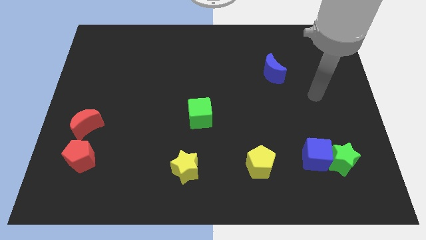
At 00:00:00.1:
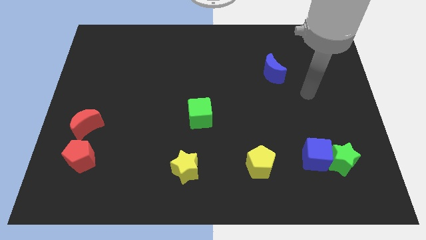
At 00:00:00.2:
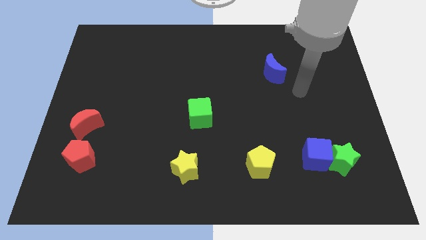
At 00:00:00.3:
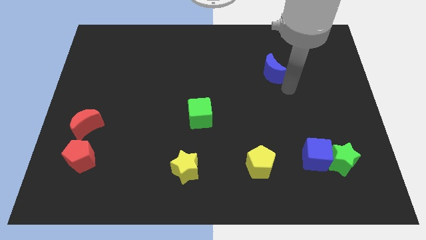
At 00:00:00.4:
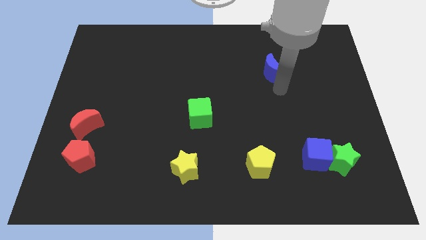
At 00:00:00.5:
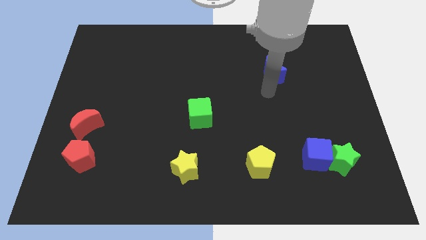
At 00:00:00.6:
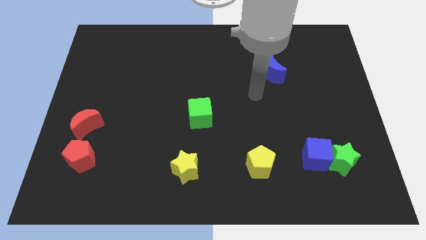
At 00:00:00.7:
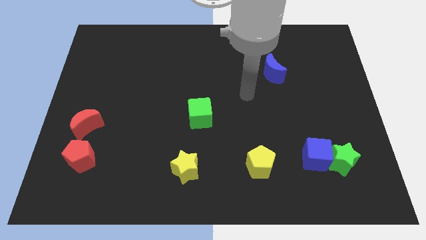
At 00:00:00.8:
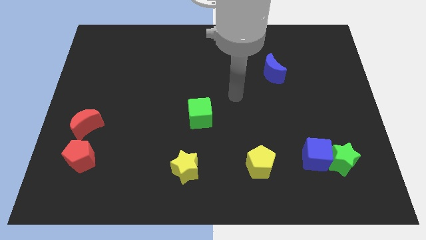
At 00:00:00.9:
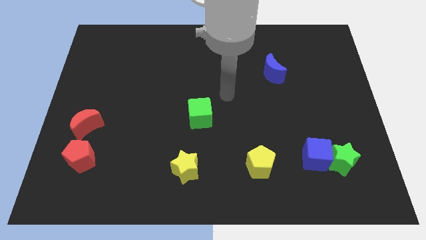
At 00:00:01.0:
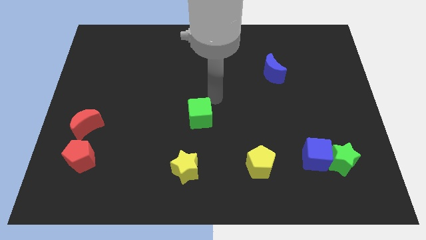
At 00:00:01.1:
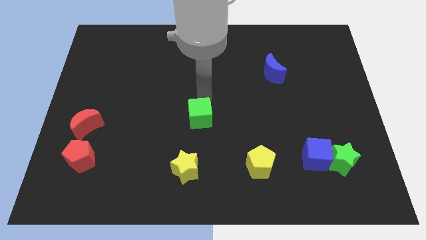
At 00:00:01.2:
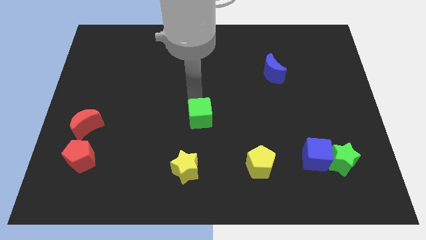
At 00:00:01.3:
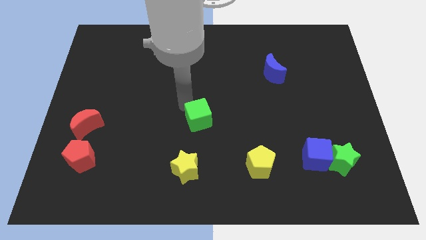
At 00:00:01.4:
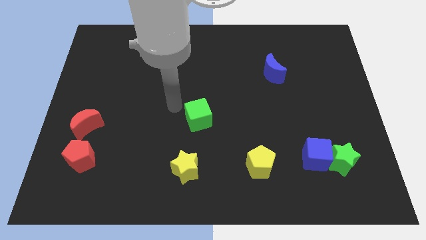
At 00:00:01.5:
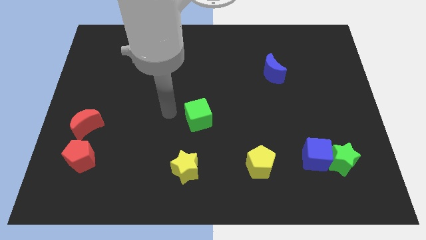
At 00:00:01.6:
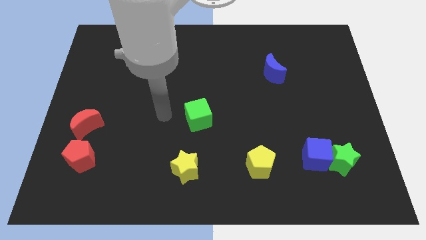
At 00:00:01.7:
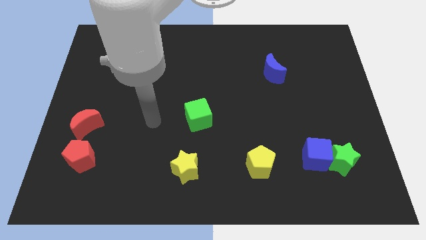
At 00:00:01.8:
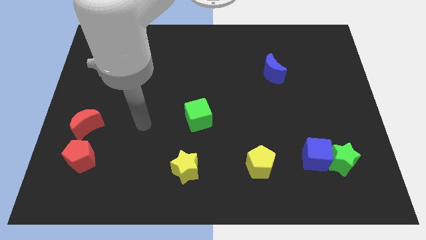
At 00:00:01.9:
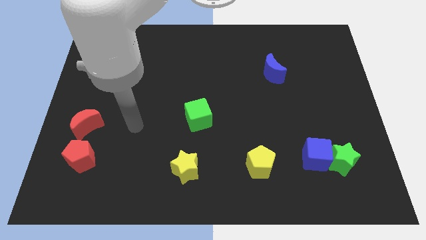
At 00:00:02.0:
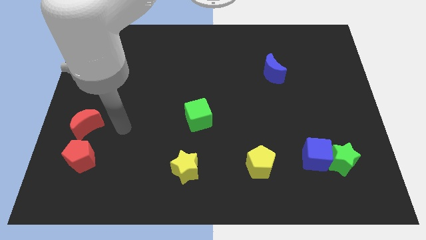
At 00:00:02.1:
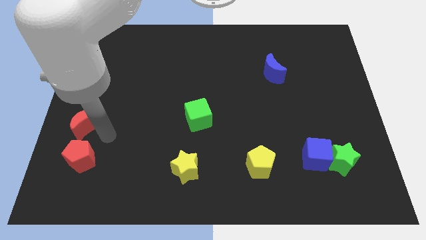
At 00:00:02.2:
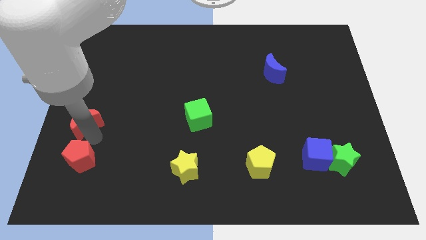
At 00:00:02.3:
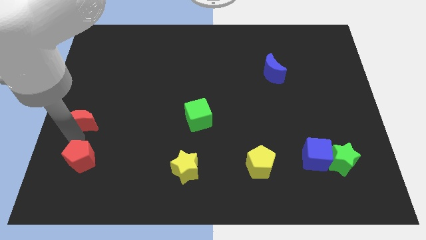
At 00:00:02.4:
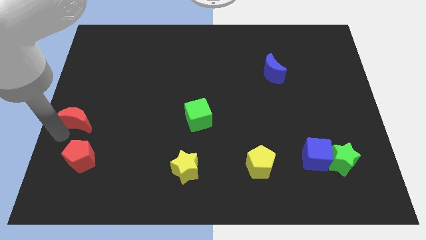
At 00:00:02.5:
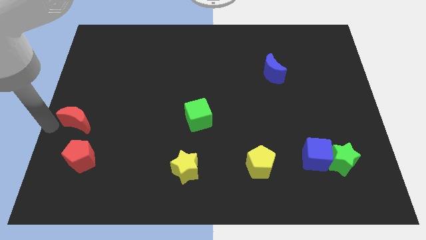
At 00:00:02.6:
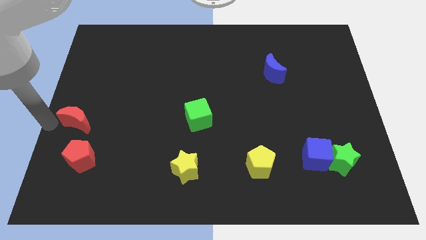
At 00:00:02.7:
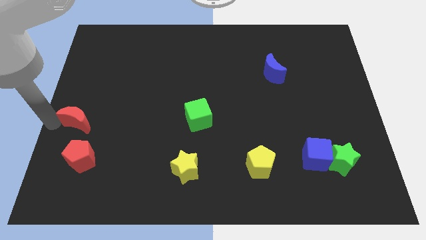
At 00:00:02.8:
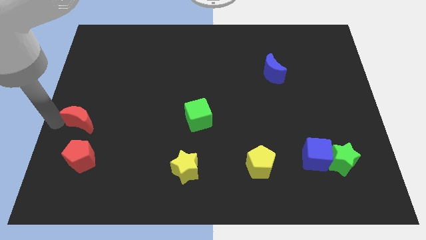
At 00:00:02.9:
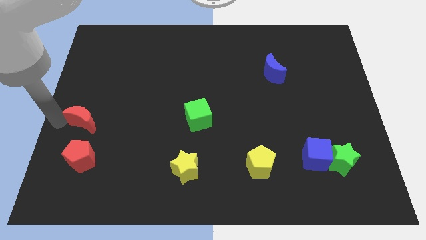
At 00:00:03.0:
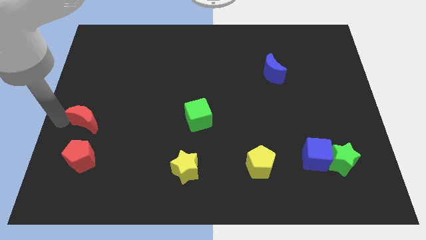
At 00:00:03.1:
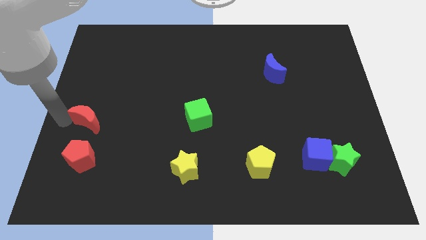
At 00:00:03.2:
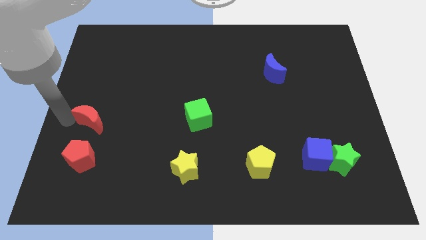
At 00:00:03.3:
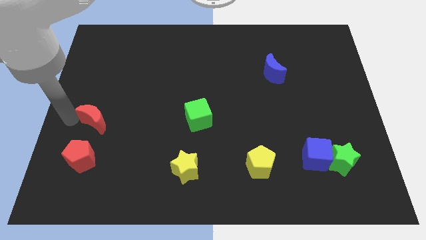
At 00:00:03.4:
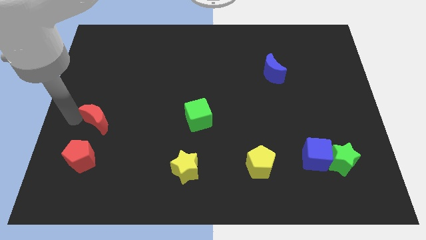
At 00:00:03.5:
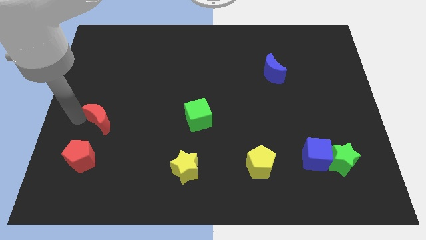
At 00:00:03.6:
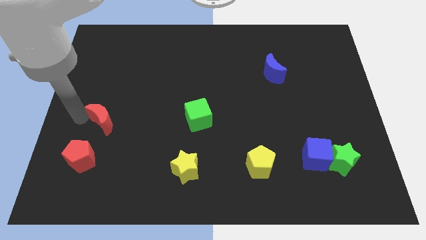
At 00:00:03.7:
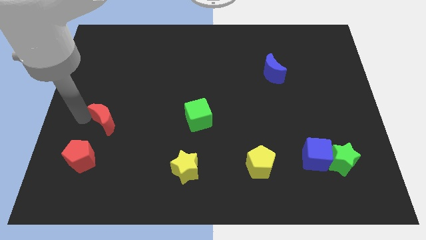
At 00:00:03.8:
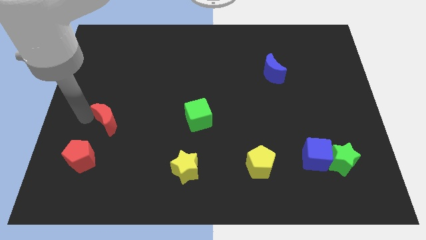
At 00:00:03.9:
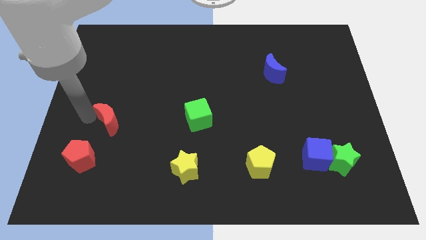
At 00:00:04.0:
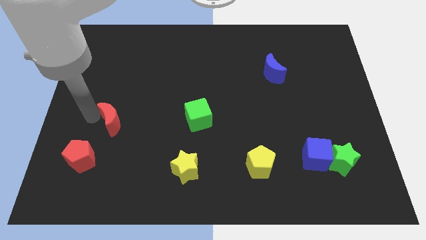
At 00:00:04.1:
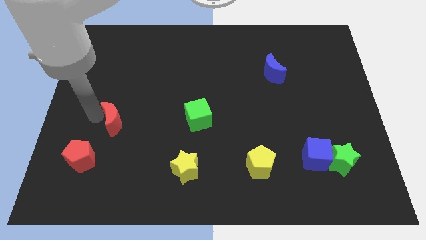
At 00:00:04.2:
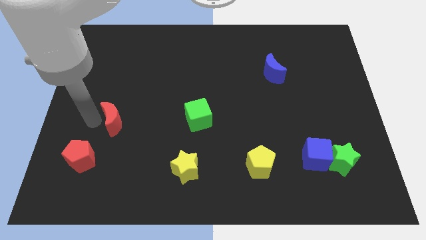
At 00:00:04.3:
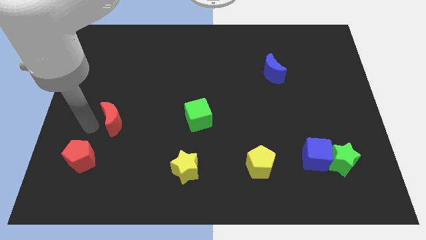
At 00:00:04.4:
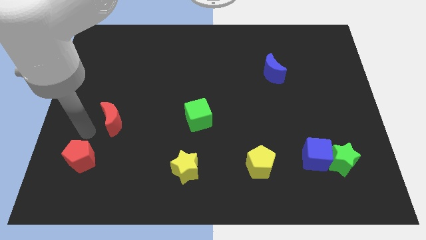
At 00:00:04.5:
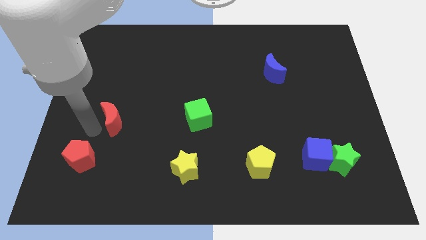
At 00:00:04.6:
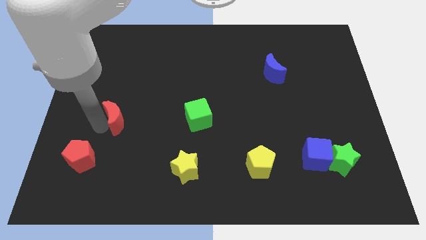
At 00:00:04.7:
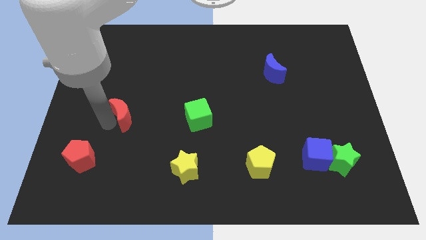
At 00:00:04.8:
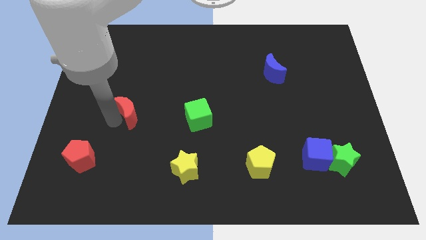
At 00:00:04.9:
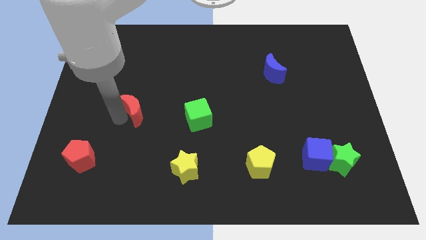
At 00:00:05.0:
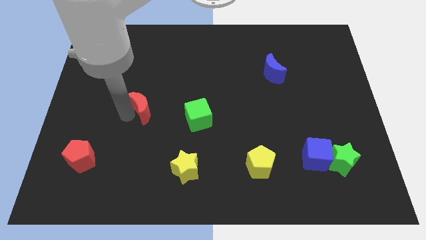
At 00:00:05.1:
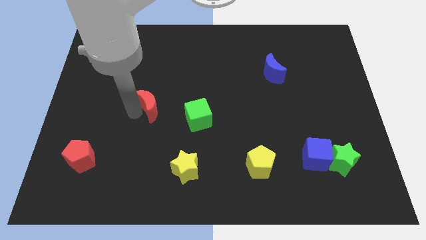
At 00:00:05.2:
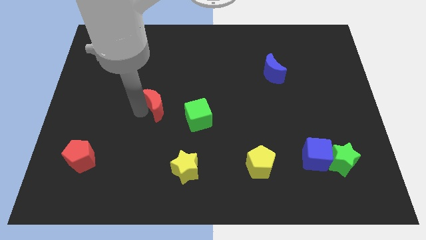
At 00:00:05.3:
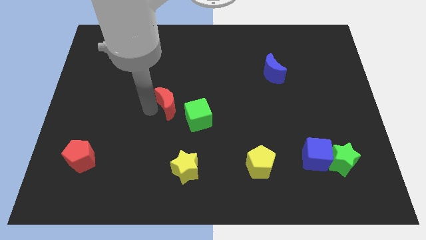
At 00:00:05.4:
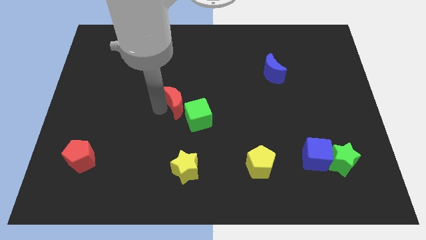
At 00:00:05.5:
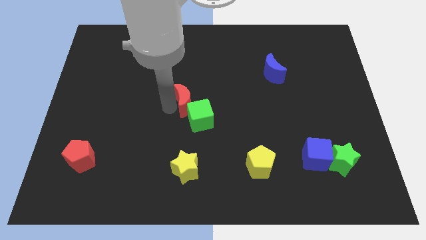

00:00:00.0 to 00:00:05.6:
slide the red moon above the green cube

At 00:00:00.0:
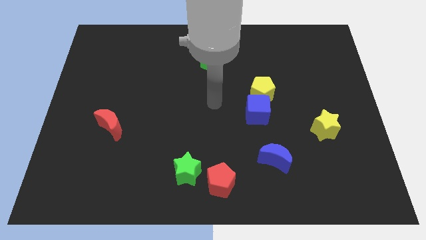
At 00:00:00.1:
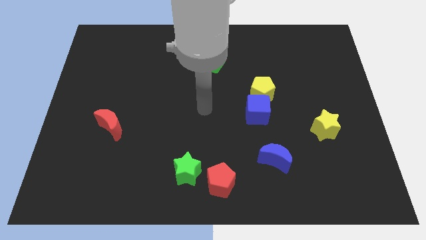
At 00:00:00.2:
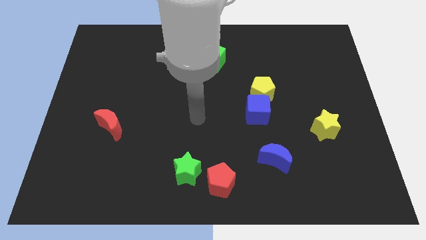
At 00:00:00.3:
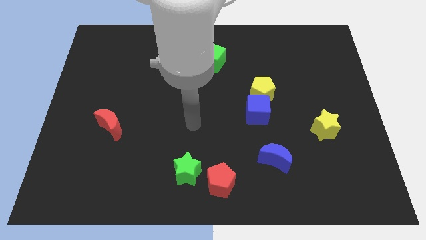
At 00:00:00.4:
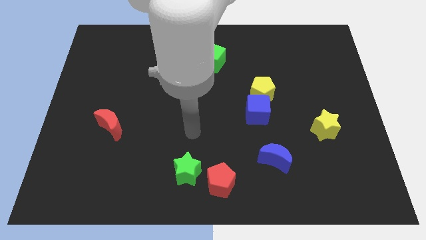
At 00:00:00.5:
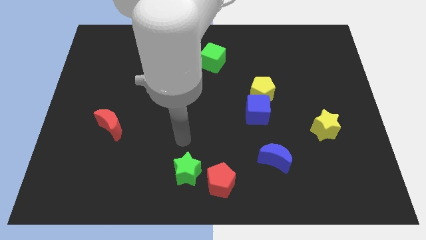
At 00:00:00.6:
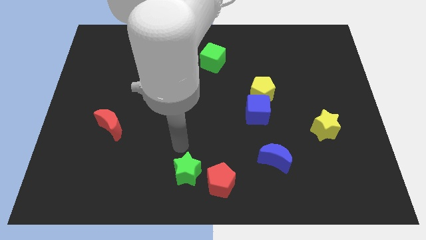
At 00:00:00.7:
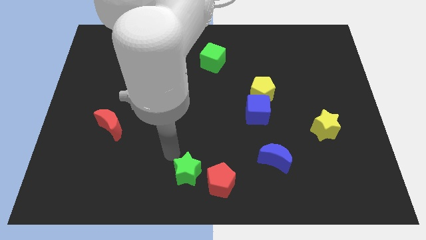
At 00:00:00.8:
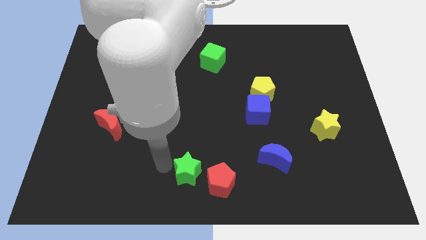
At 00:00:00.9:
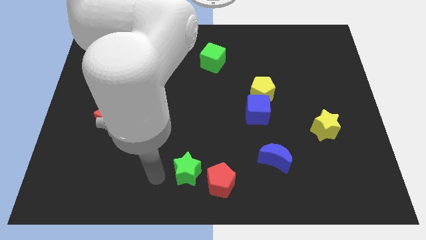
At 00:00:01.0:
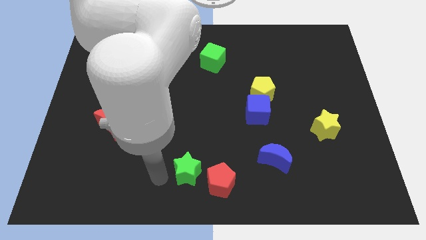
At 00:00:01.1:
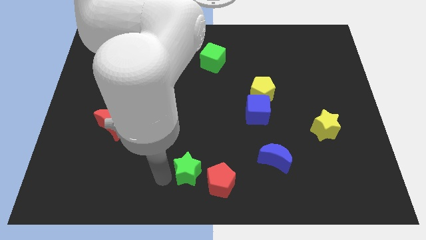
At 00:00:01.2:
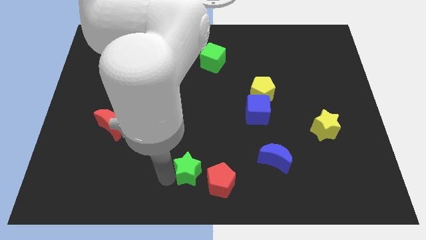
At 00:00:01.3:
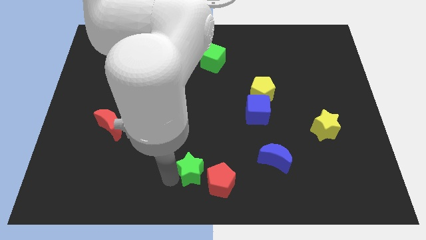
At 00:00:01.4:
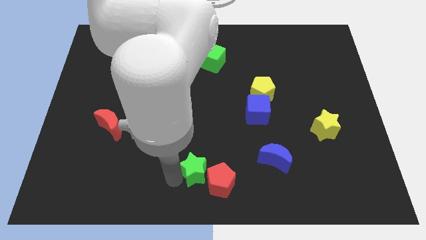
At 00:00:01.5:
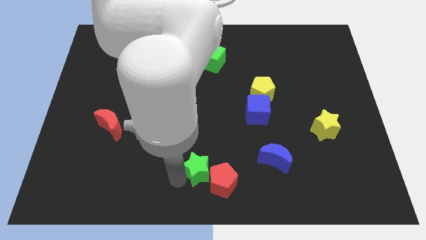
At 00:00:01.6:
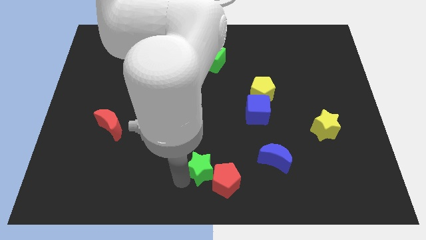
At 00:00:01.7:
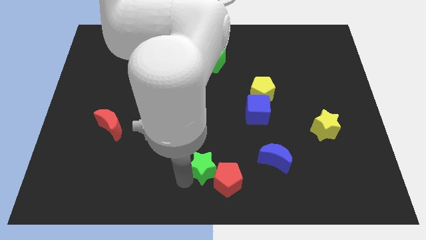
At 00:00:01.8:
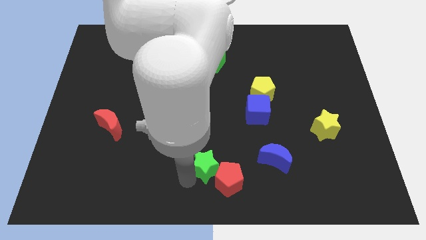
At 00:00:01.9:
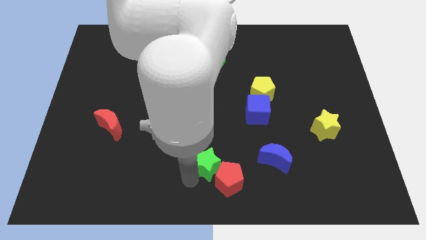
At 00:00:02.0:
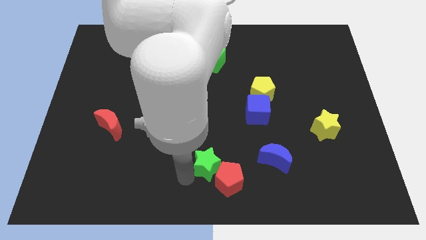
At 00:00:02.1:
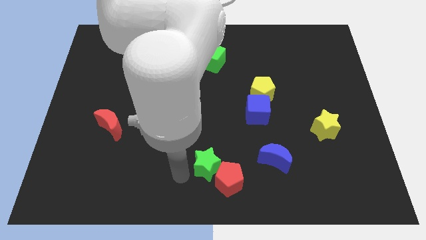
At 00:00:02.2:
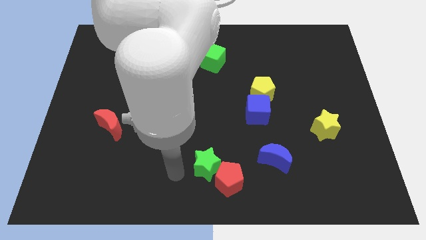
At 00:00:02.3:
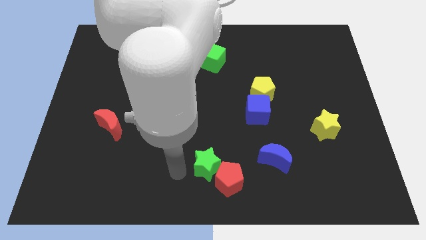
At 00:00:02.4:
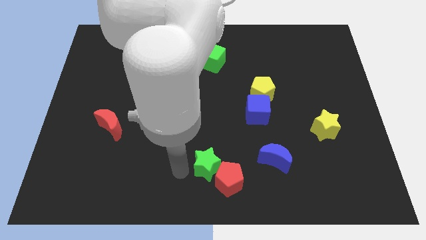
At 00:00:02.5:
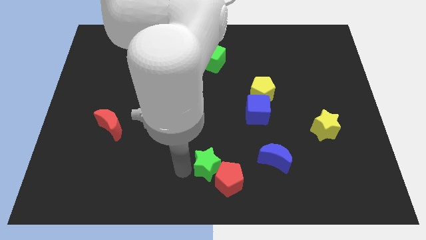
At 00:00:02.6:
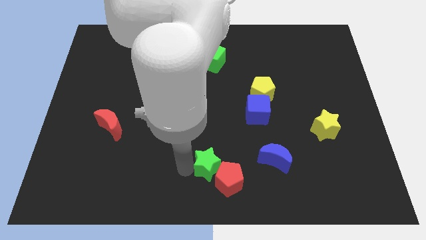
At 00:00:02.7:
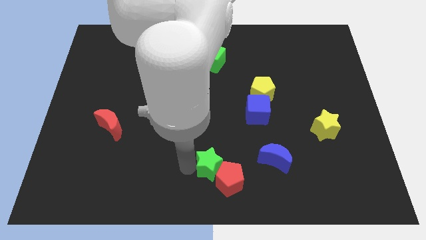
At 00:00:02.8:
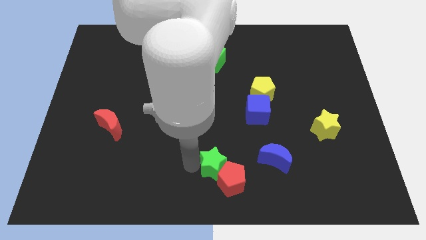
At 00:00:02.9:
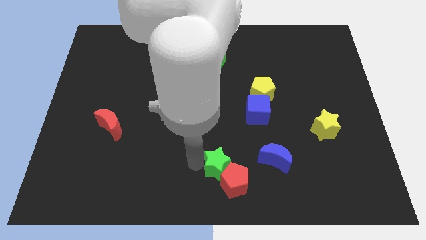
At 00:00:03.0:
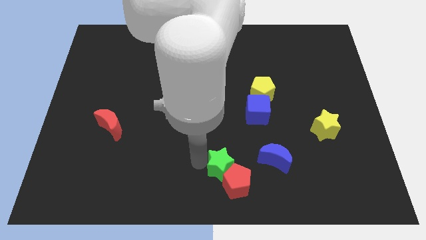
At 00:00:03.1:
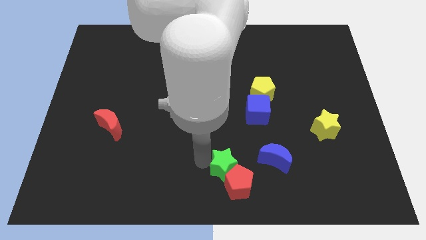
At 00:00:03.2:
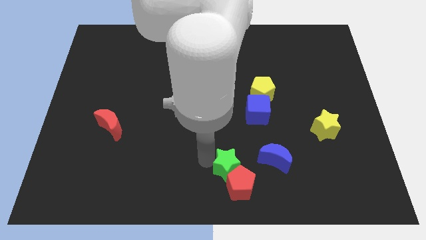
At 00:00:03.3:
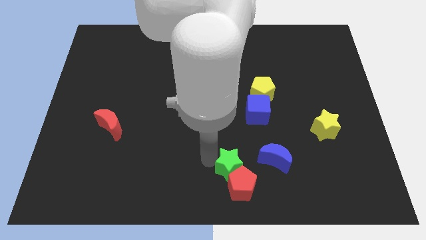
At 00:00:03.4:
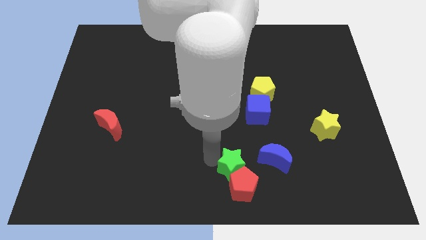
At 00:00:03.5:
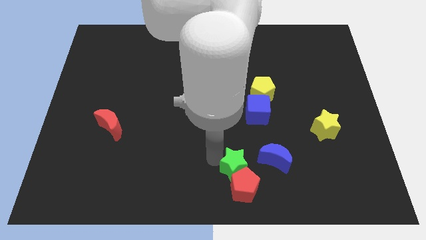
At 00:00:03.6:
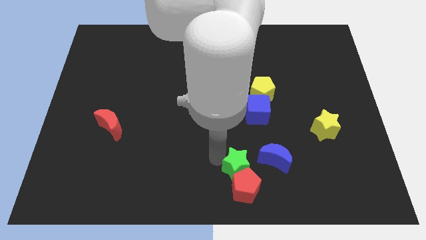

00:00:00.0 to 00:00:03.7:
slide the green star to the bottom left of the blue moon
